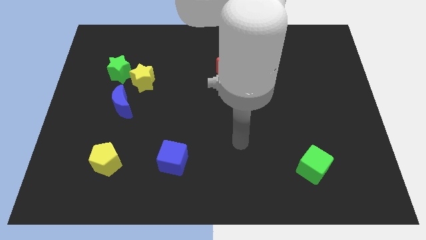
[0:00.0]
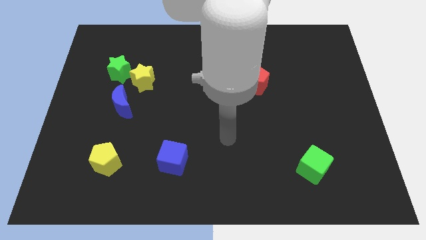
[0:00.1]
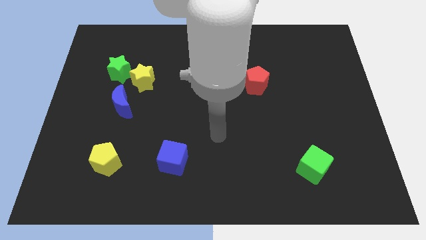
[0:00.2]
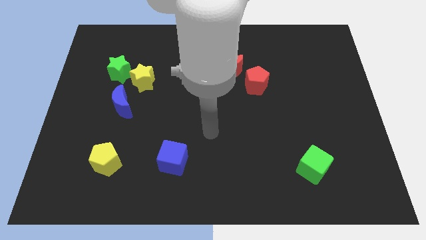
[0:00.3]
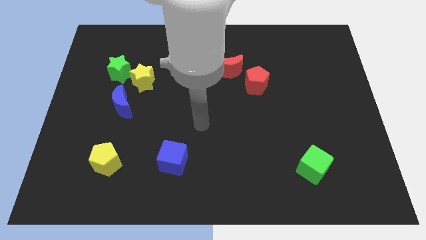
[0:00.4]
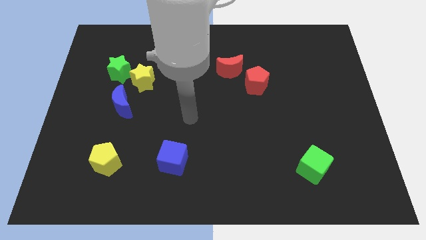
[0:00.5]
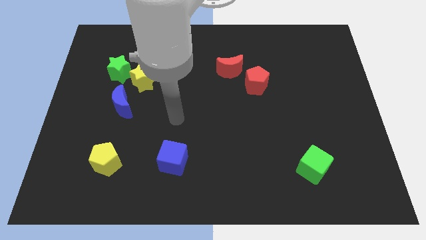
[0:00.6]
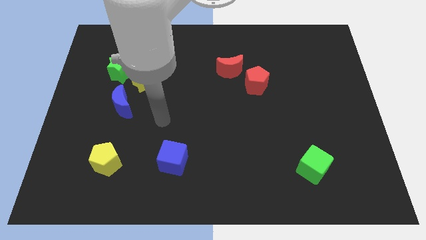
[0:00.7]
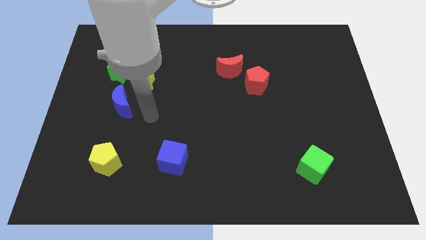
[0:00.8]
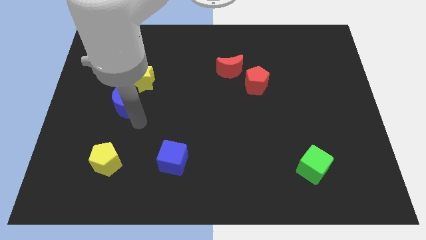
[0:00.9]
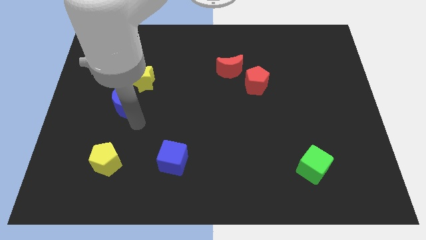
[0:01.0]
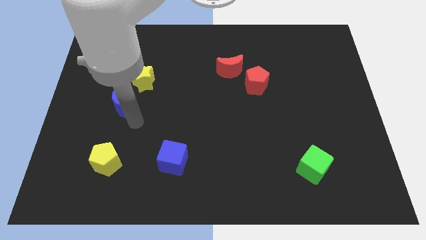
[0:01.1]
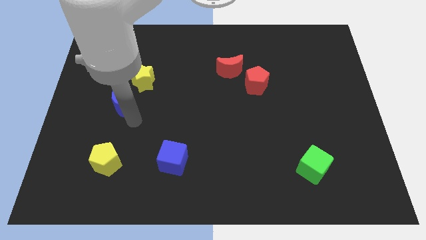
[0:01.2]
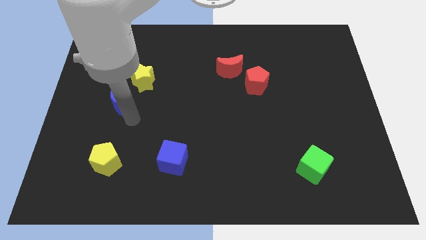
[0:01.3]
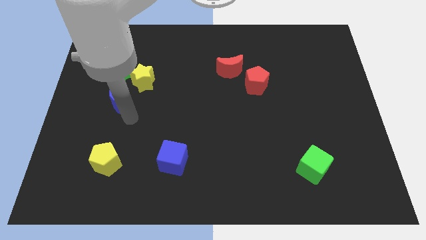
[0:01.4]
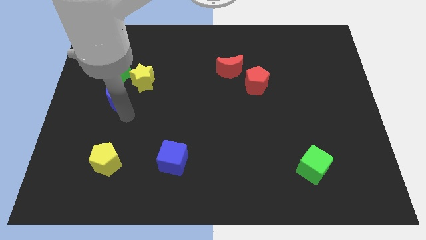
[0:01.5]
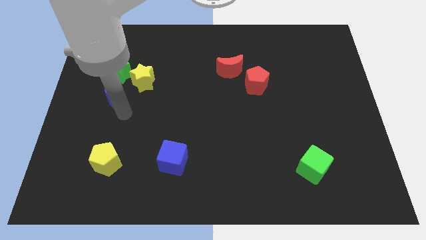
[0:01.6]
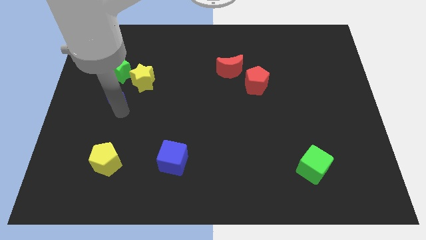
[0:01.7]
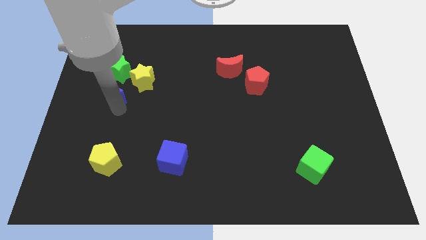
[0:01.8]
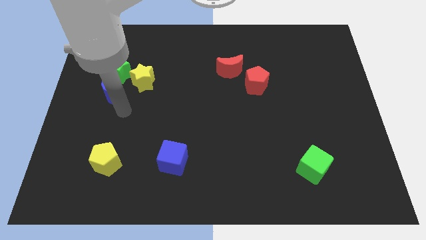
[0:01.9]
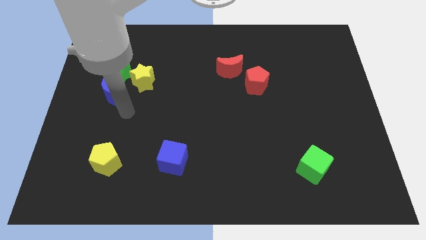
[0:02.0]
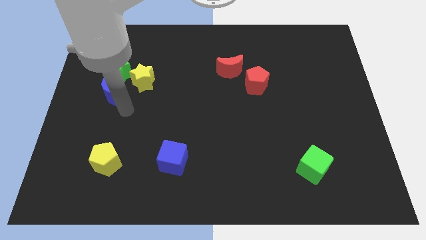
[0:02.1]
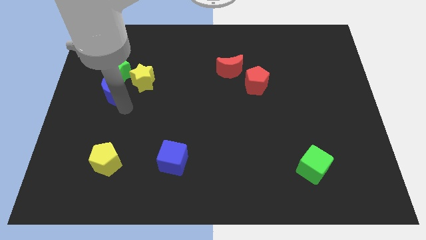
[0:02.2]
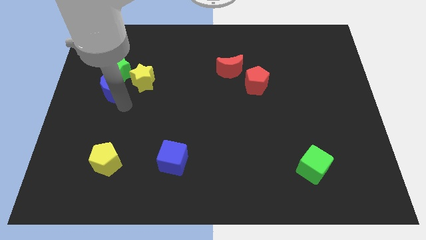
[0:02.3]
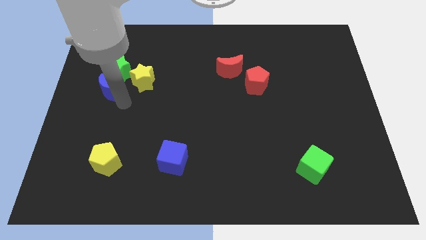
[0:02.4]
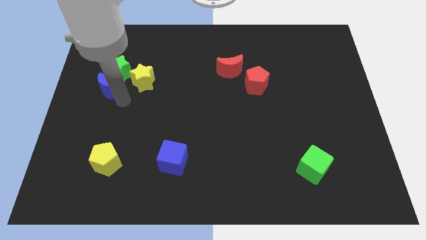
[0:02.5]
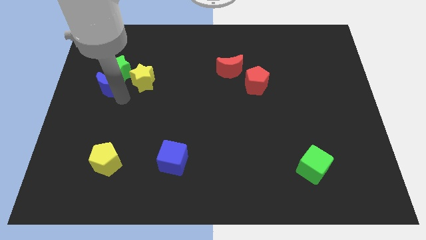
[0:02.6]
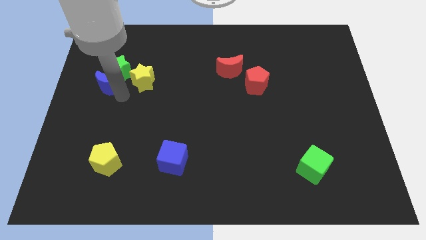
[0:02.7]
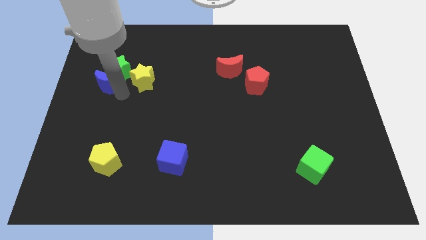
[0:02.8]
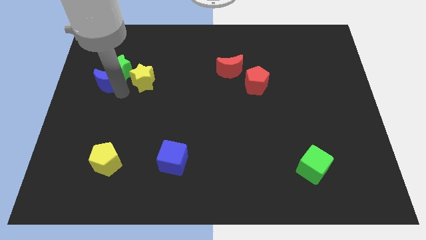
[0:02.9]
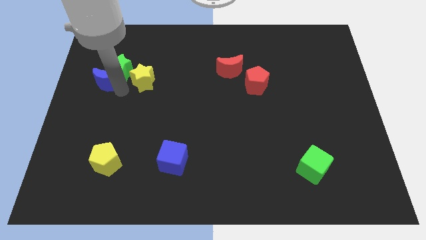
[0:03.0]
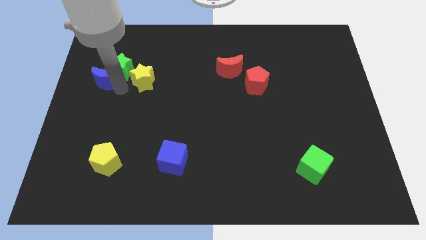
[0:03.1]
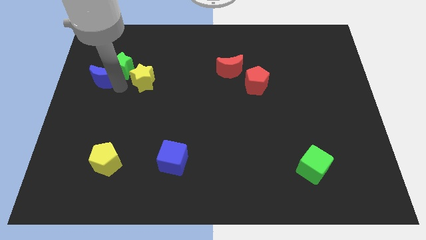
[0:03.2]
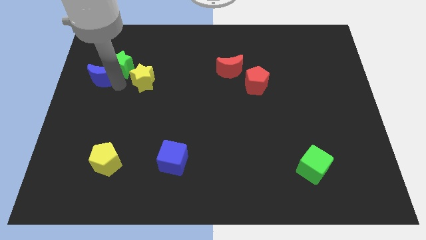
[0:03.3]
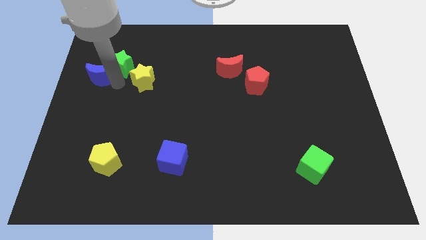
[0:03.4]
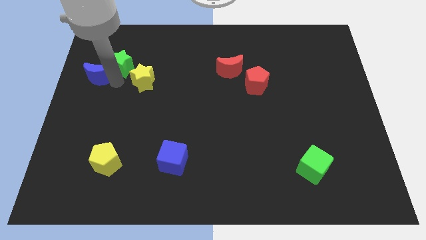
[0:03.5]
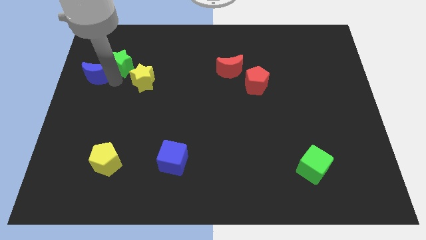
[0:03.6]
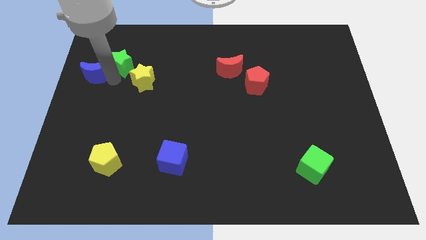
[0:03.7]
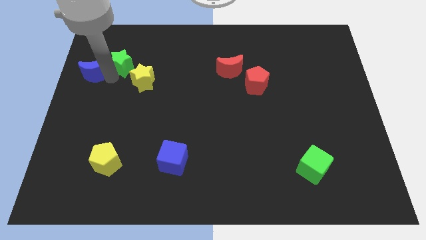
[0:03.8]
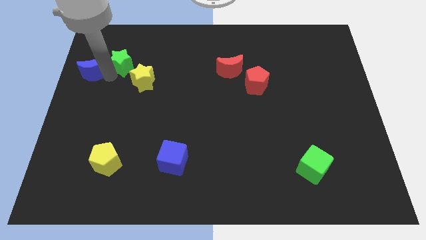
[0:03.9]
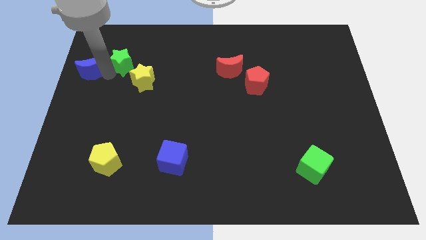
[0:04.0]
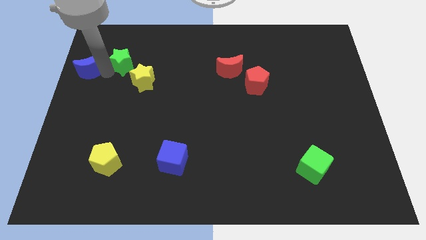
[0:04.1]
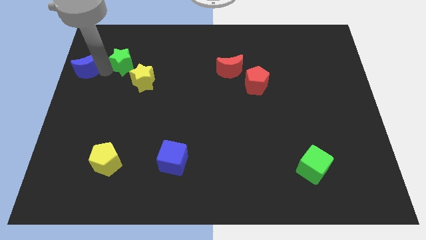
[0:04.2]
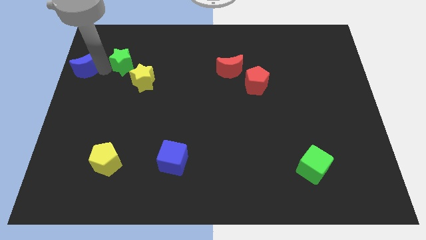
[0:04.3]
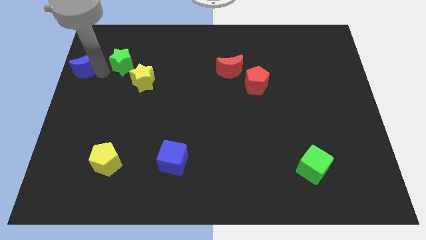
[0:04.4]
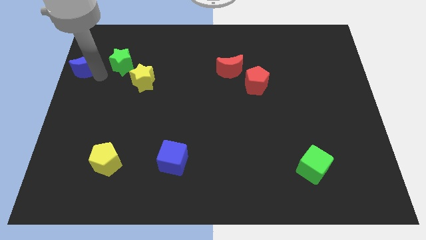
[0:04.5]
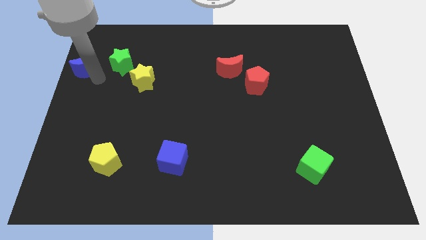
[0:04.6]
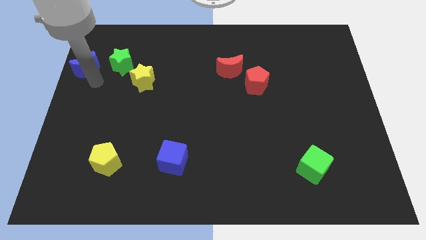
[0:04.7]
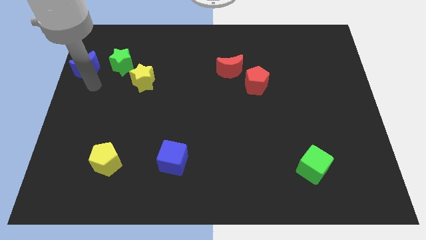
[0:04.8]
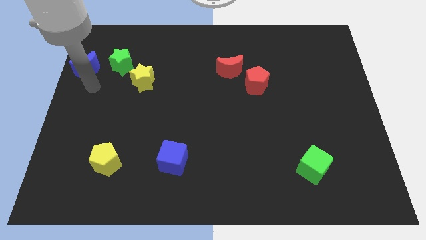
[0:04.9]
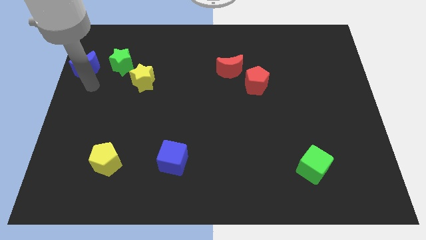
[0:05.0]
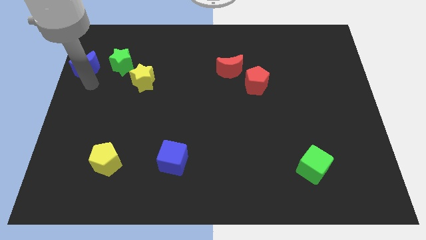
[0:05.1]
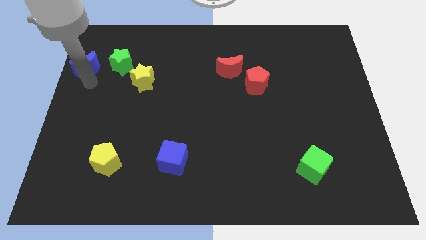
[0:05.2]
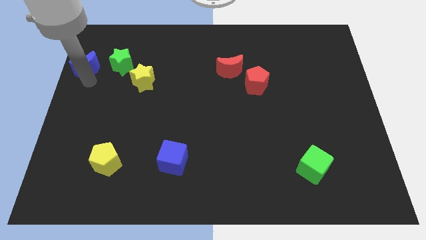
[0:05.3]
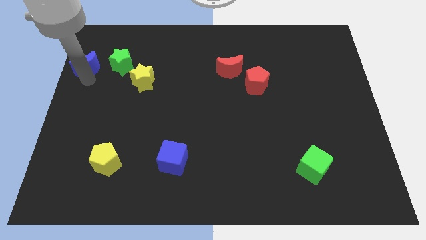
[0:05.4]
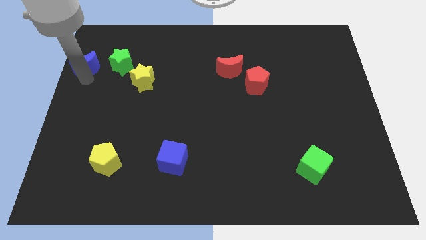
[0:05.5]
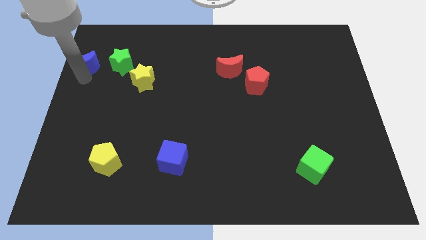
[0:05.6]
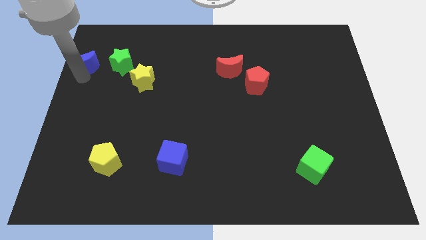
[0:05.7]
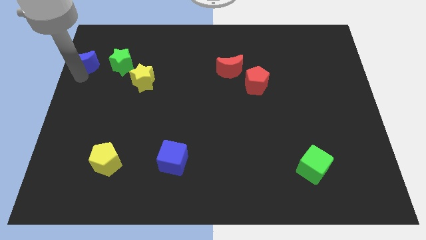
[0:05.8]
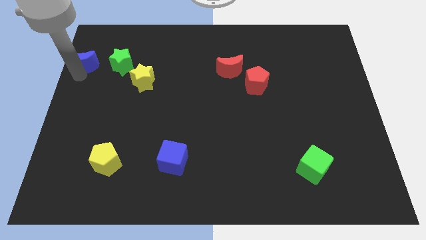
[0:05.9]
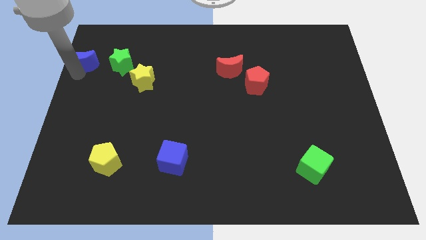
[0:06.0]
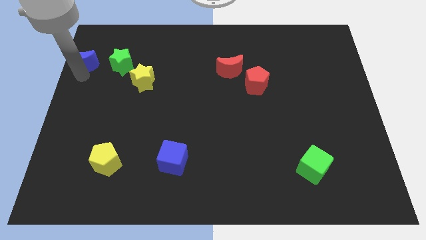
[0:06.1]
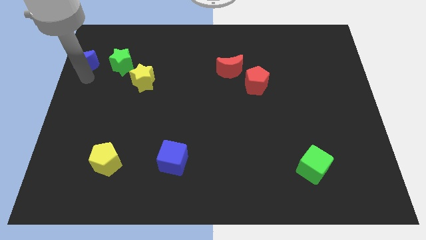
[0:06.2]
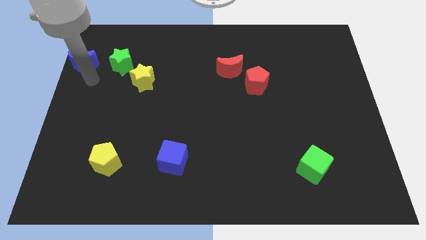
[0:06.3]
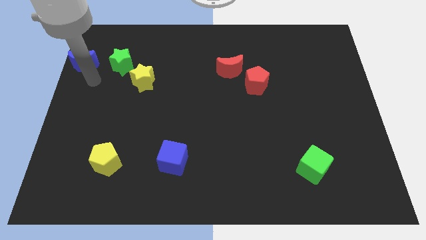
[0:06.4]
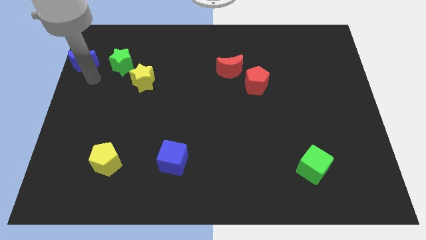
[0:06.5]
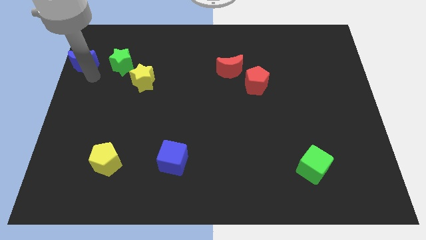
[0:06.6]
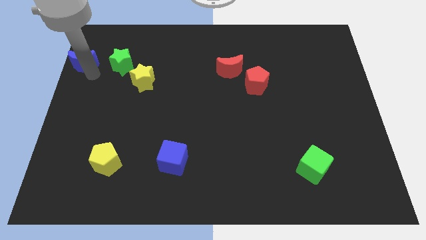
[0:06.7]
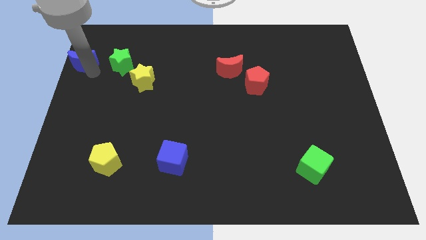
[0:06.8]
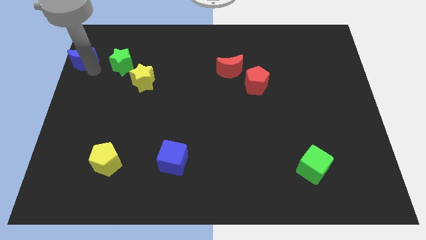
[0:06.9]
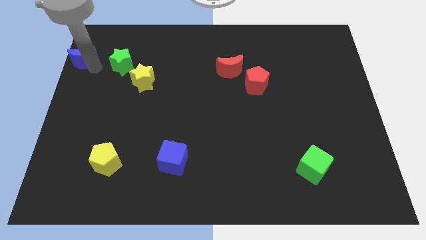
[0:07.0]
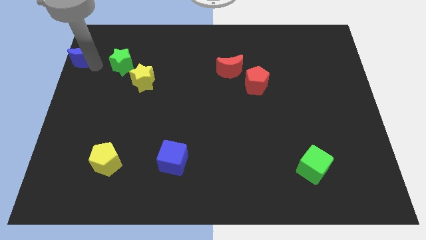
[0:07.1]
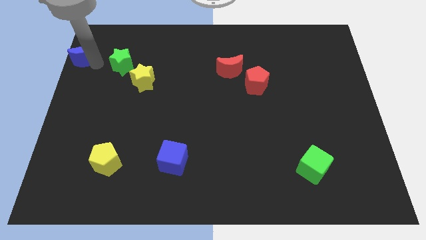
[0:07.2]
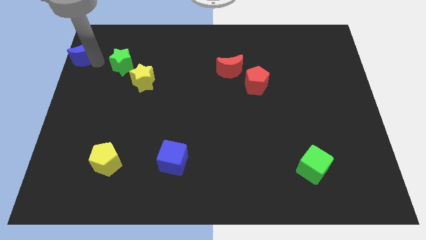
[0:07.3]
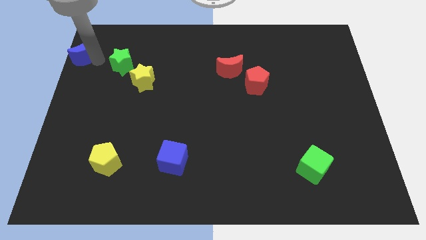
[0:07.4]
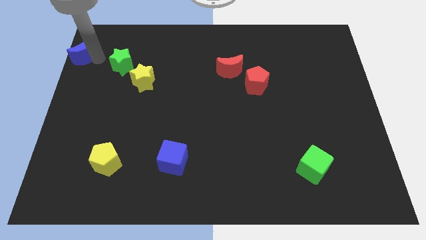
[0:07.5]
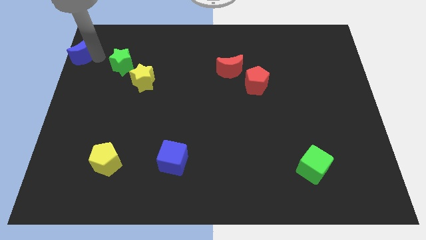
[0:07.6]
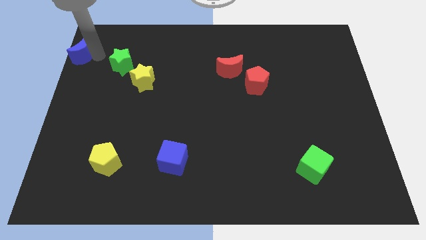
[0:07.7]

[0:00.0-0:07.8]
slide the blue moon to the upper left corner
